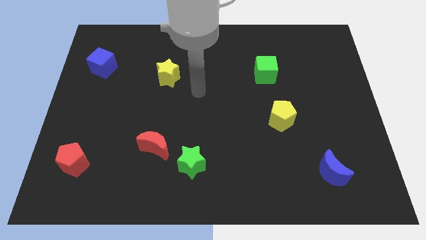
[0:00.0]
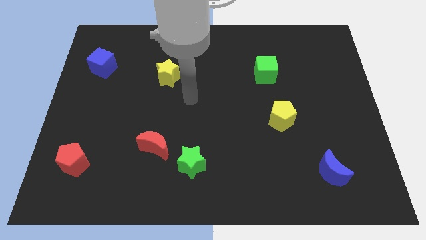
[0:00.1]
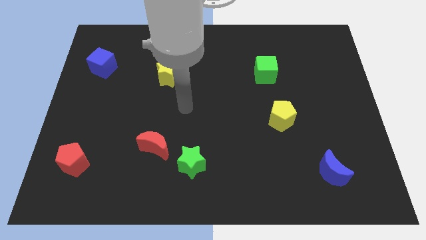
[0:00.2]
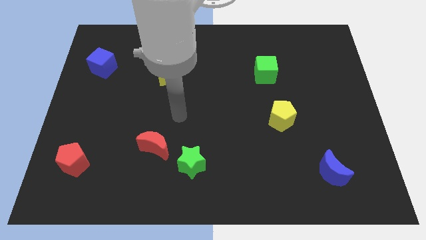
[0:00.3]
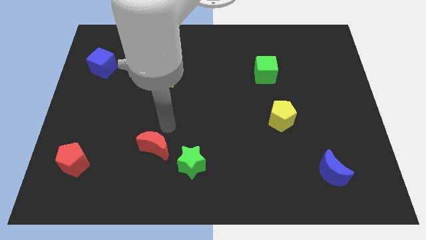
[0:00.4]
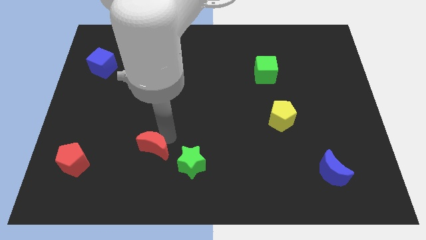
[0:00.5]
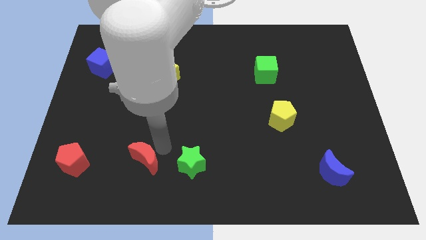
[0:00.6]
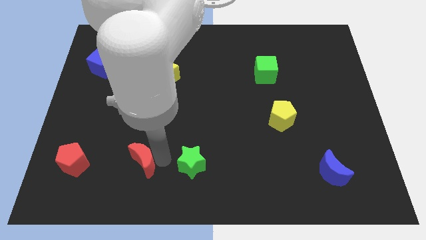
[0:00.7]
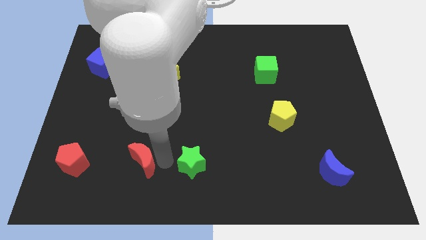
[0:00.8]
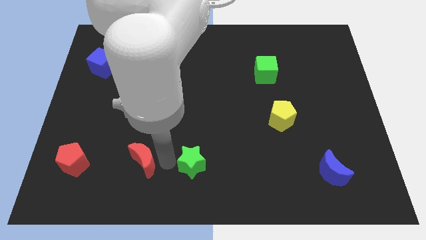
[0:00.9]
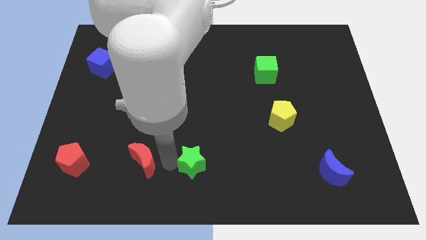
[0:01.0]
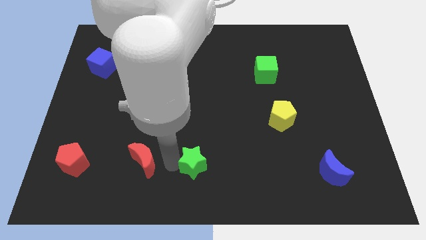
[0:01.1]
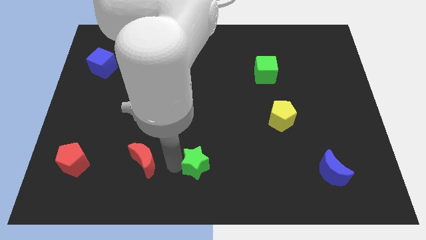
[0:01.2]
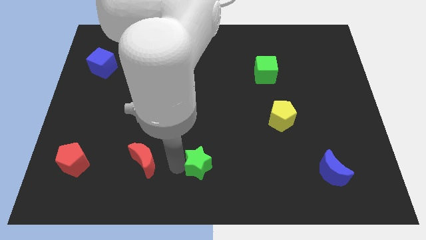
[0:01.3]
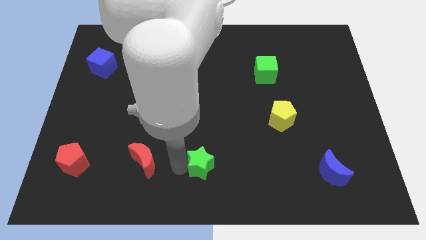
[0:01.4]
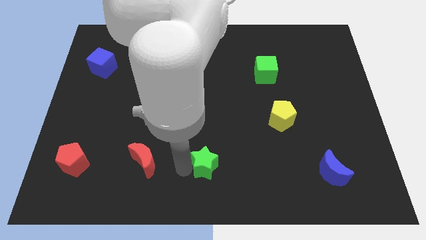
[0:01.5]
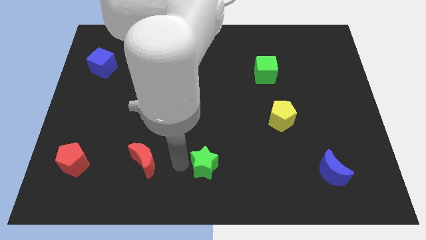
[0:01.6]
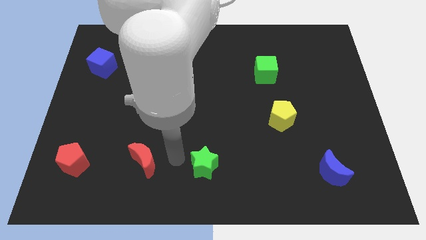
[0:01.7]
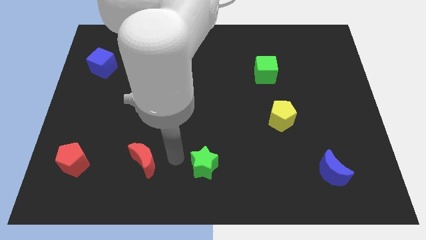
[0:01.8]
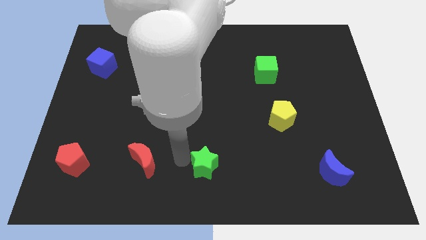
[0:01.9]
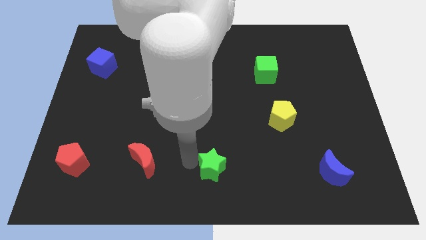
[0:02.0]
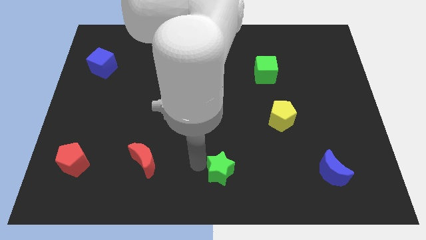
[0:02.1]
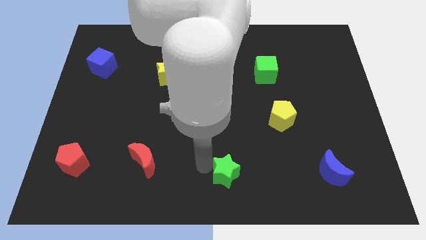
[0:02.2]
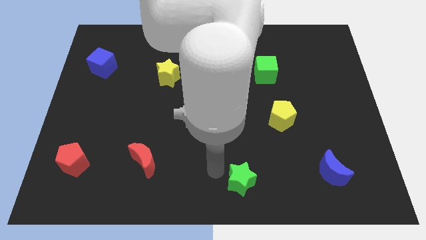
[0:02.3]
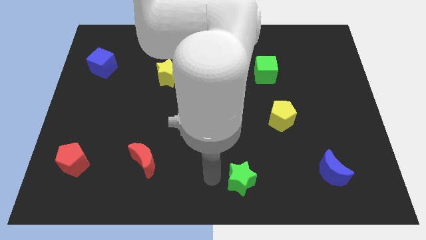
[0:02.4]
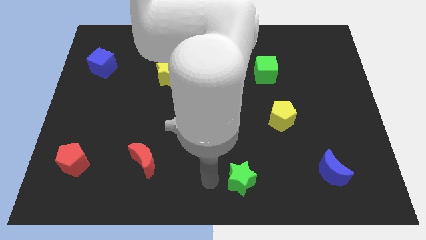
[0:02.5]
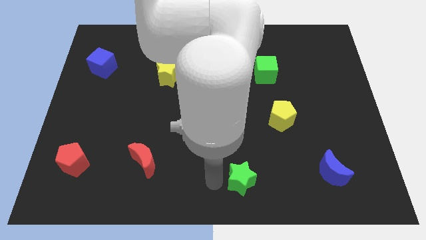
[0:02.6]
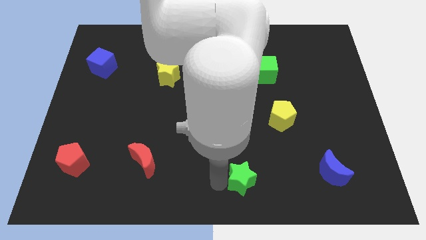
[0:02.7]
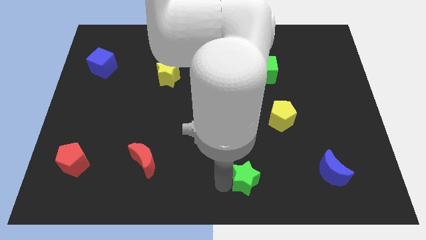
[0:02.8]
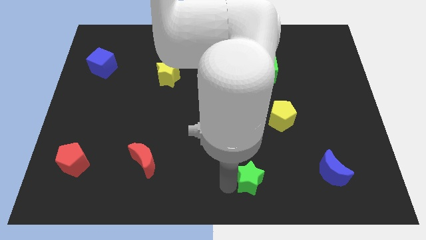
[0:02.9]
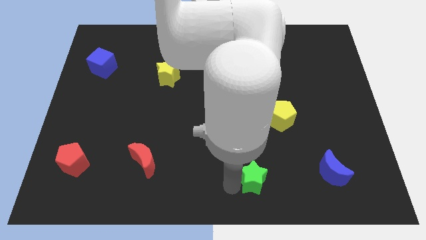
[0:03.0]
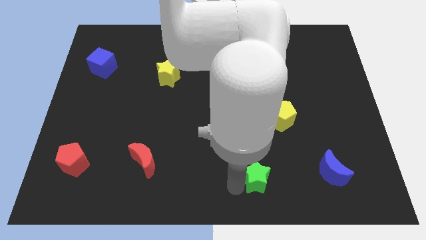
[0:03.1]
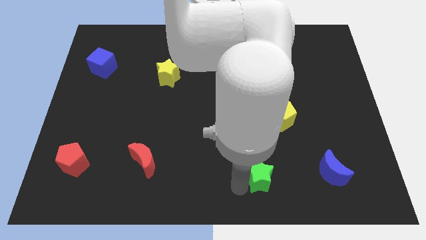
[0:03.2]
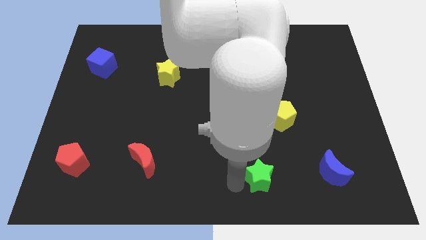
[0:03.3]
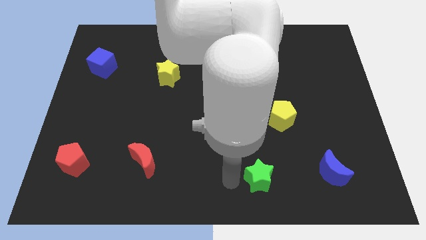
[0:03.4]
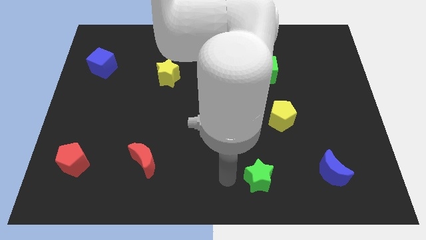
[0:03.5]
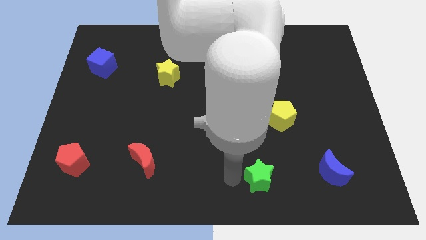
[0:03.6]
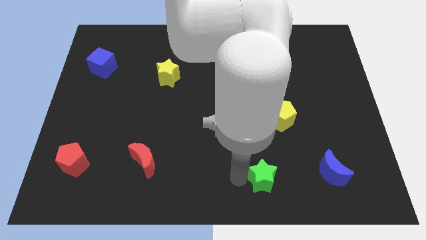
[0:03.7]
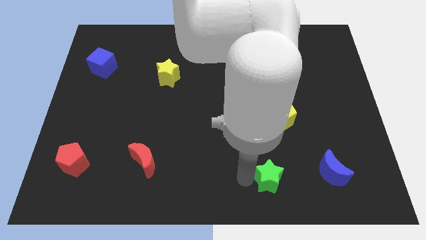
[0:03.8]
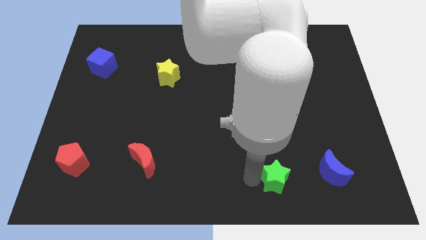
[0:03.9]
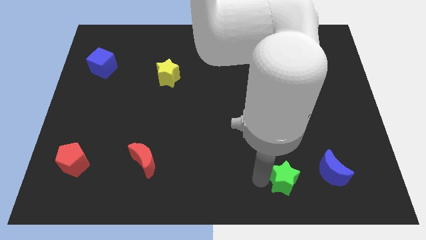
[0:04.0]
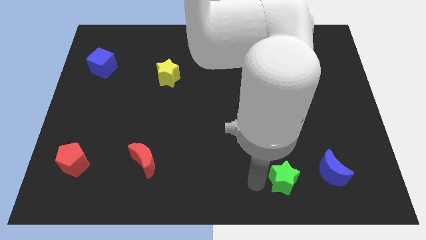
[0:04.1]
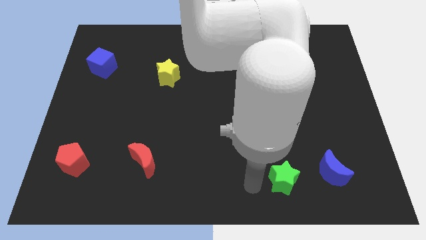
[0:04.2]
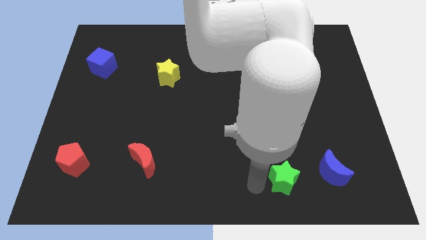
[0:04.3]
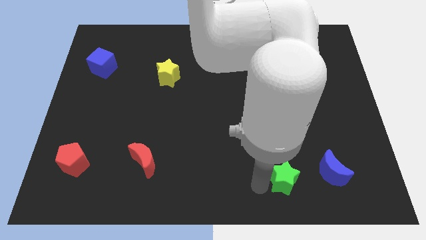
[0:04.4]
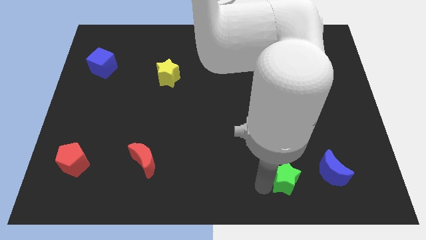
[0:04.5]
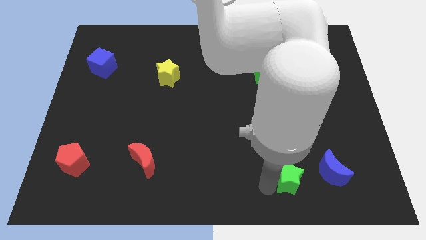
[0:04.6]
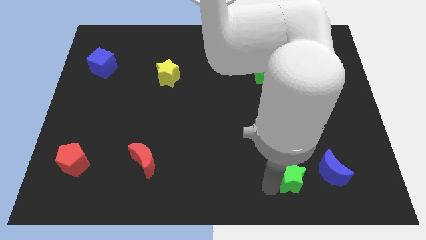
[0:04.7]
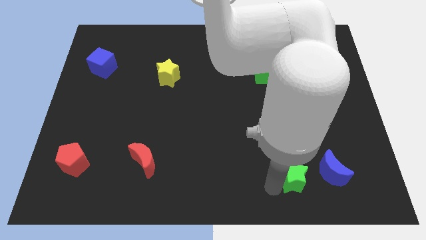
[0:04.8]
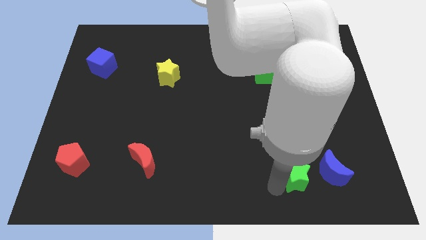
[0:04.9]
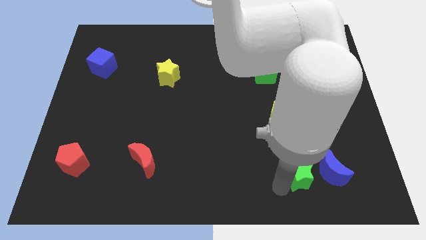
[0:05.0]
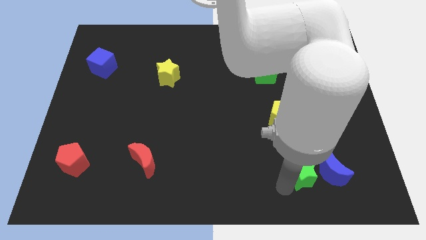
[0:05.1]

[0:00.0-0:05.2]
move the green star close to the blue moon

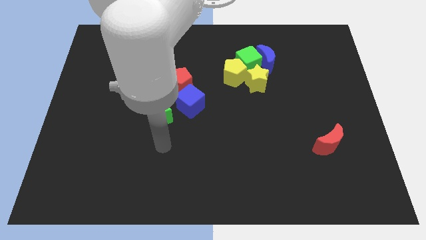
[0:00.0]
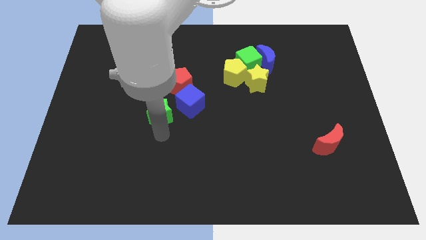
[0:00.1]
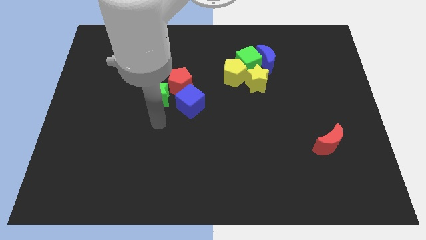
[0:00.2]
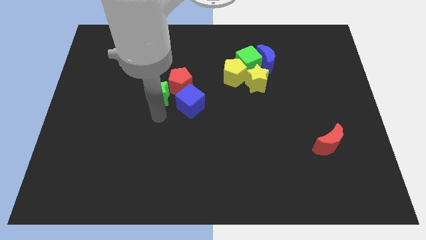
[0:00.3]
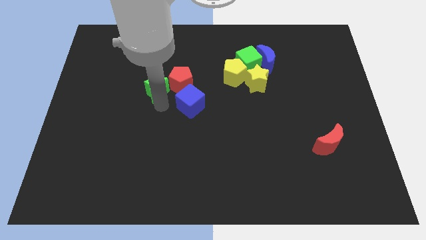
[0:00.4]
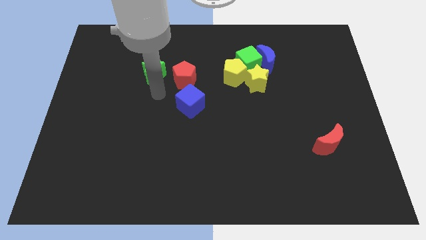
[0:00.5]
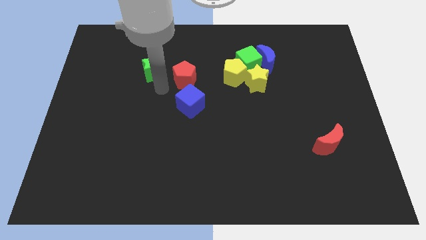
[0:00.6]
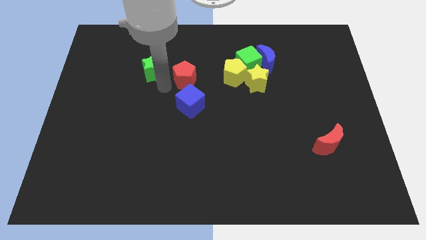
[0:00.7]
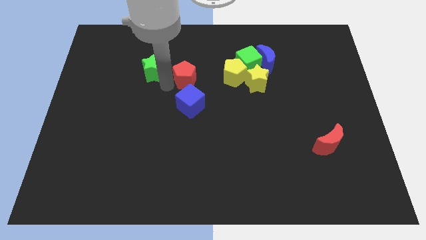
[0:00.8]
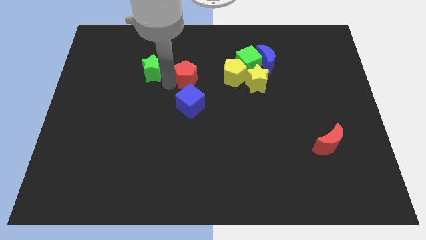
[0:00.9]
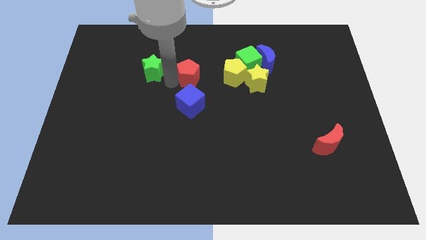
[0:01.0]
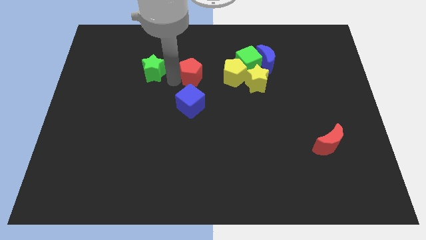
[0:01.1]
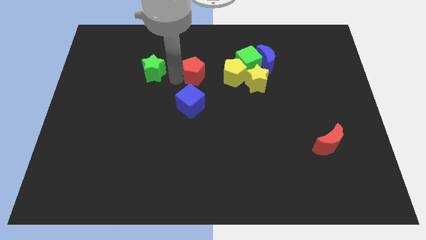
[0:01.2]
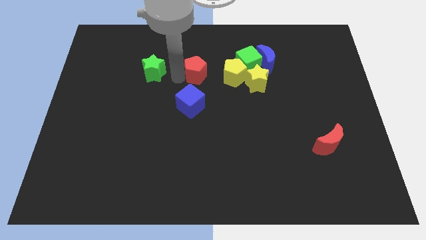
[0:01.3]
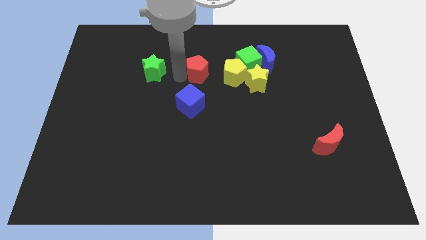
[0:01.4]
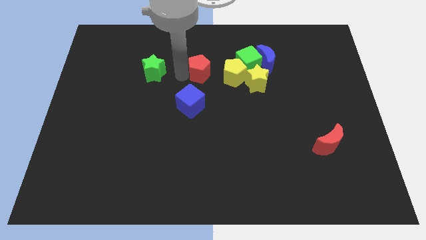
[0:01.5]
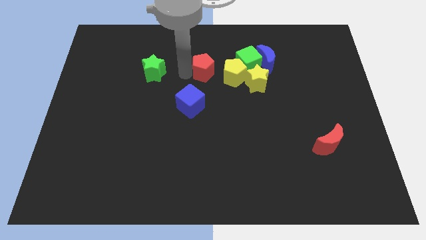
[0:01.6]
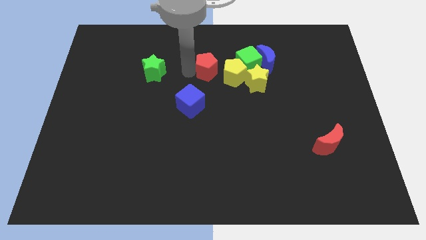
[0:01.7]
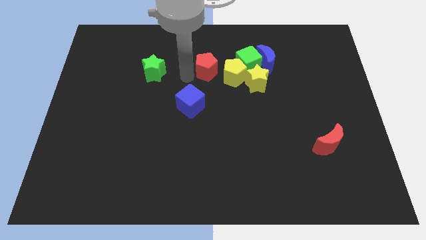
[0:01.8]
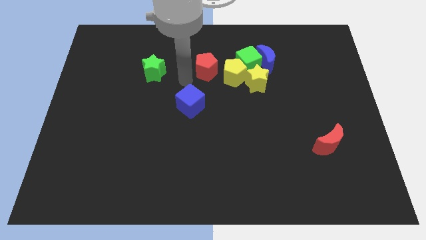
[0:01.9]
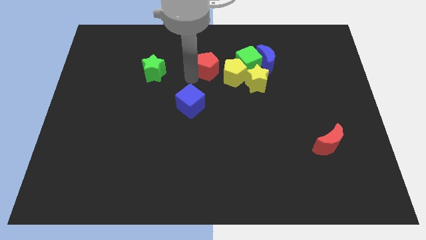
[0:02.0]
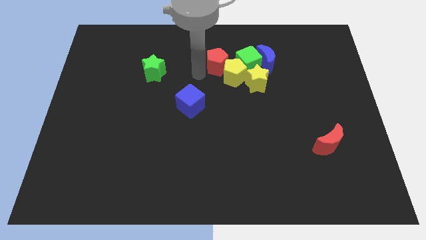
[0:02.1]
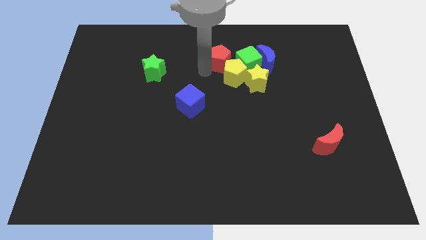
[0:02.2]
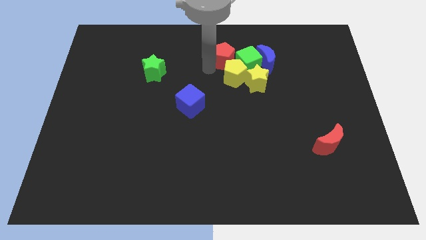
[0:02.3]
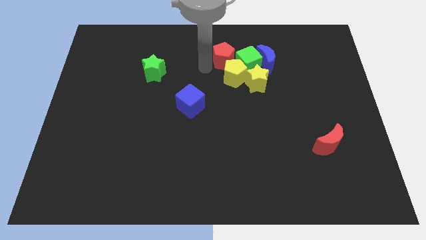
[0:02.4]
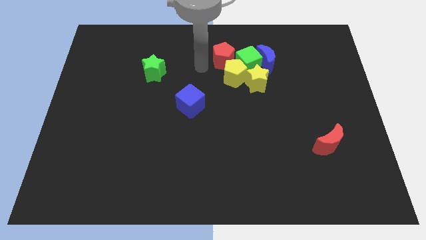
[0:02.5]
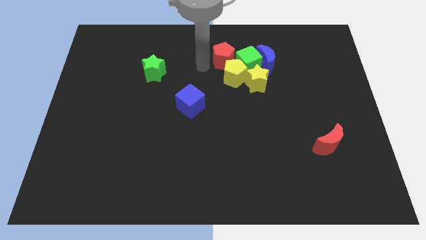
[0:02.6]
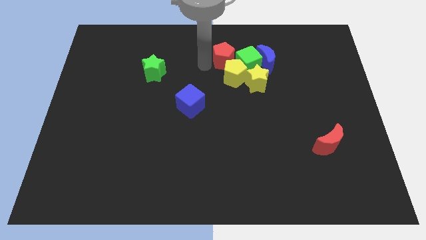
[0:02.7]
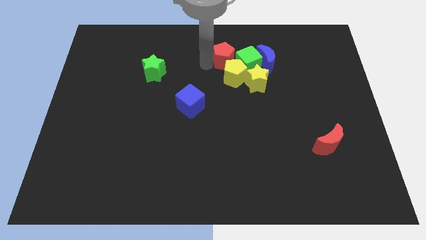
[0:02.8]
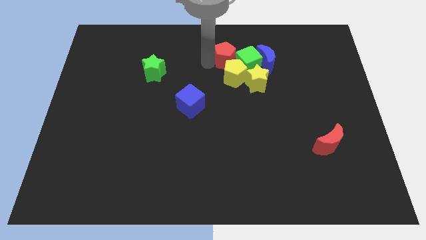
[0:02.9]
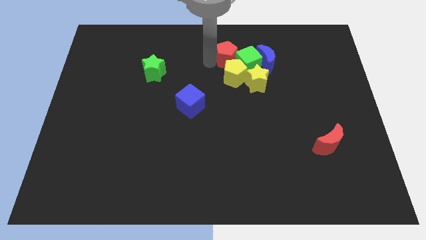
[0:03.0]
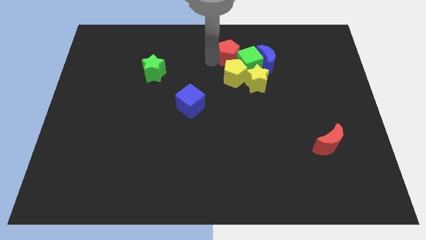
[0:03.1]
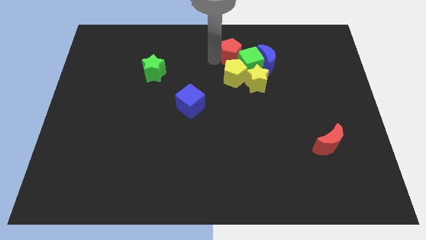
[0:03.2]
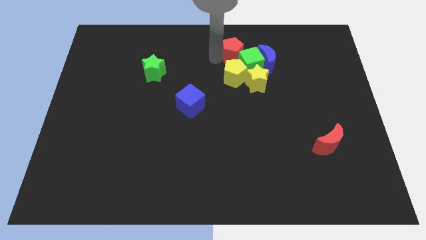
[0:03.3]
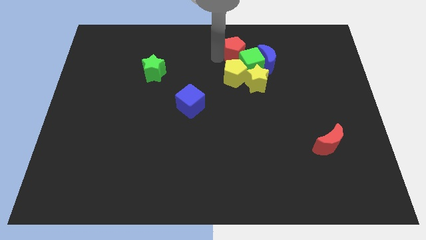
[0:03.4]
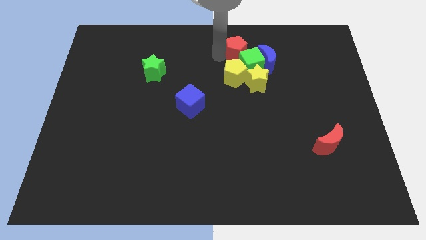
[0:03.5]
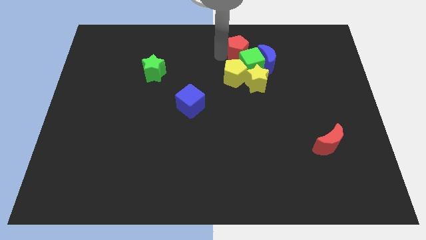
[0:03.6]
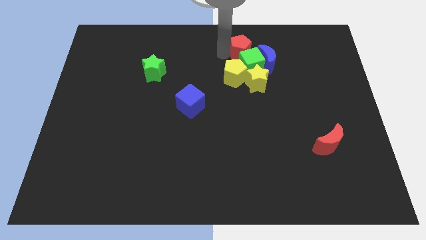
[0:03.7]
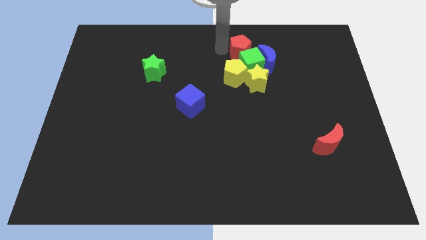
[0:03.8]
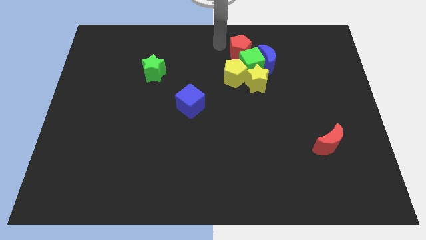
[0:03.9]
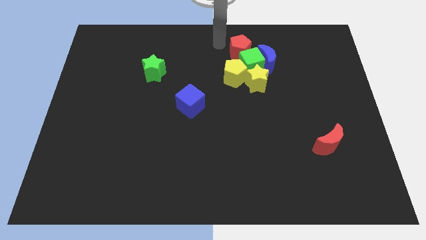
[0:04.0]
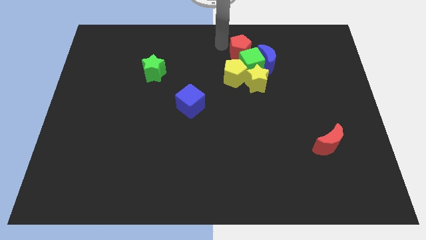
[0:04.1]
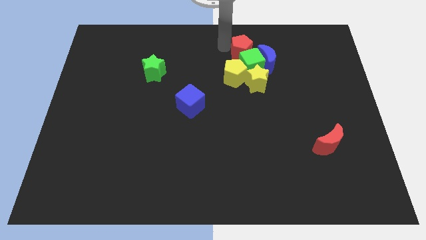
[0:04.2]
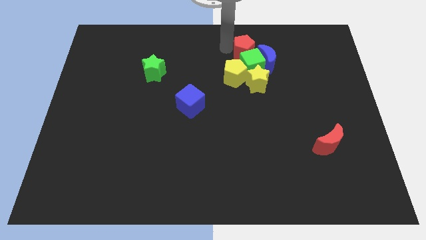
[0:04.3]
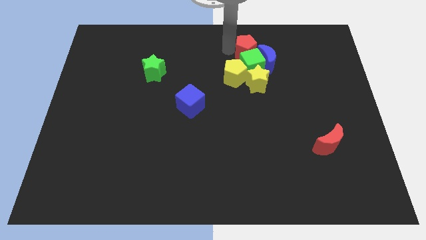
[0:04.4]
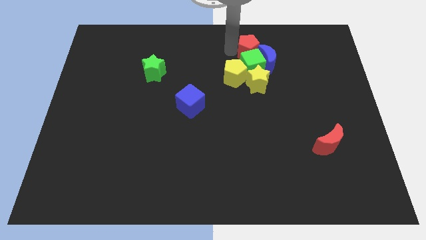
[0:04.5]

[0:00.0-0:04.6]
push the red pentagon to the blue moon
